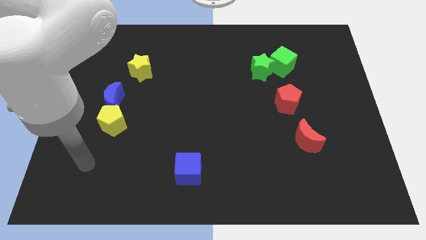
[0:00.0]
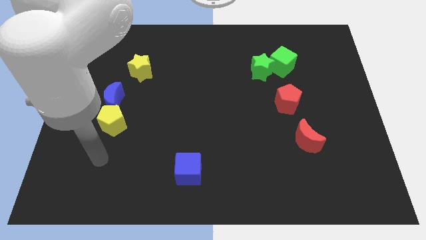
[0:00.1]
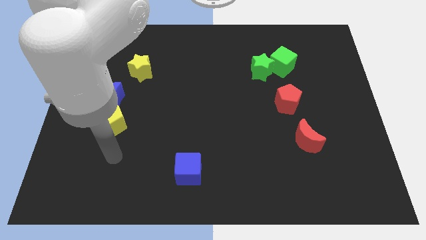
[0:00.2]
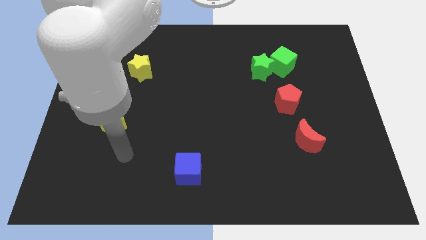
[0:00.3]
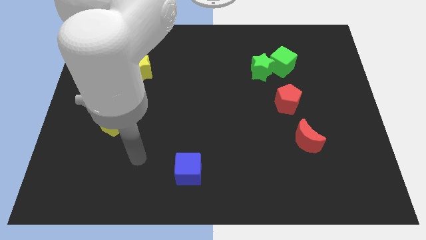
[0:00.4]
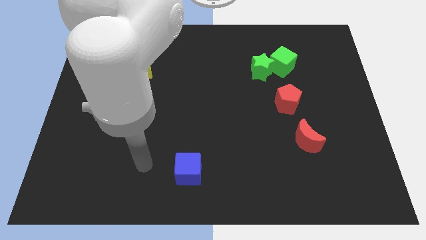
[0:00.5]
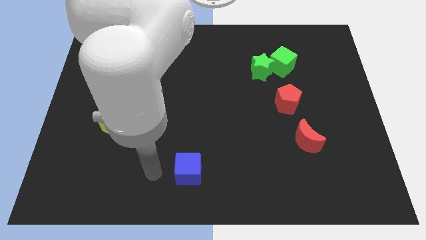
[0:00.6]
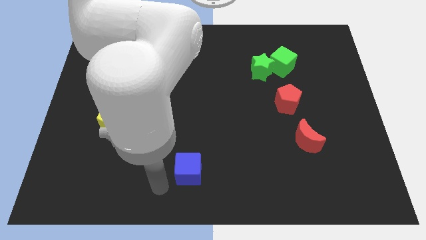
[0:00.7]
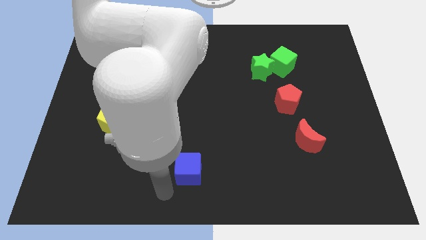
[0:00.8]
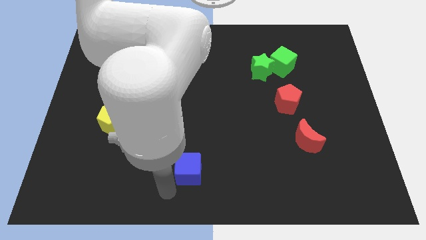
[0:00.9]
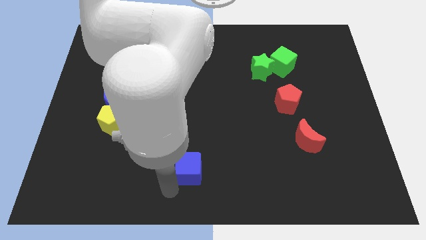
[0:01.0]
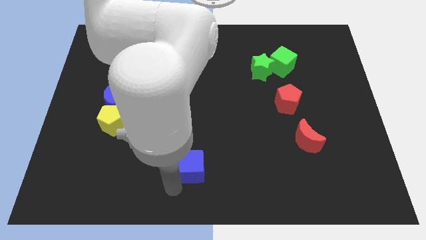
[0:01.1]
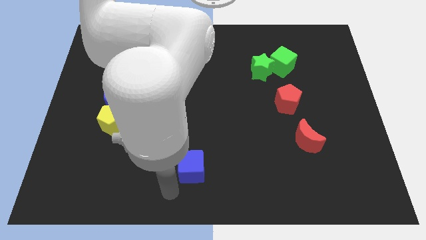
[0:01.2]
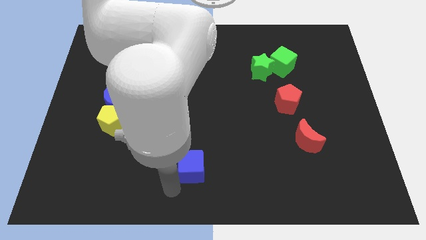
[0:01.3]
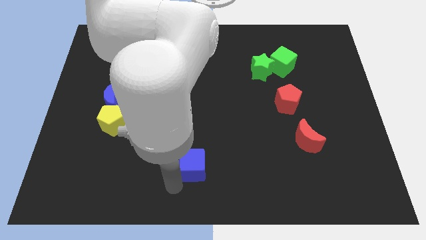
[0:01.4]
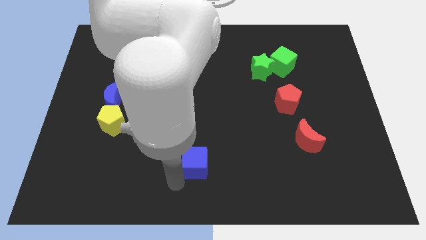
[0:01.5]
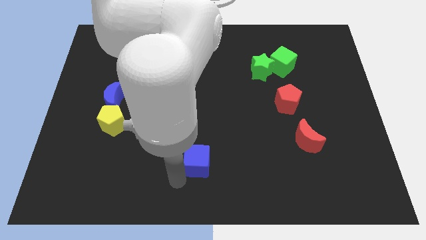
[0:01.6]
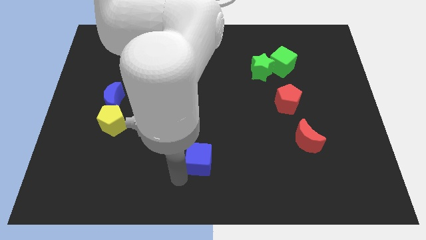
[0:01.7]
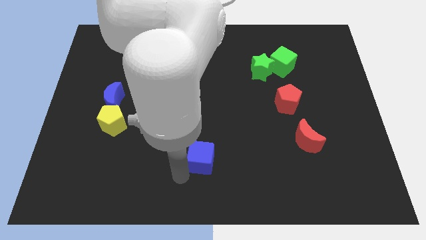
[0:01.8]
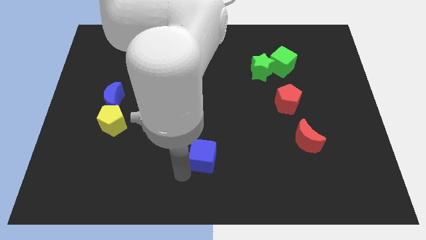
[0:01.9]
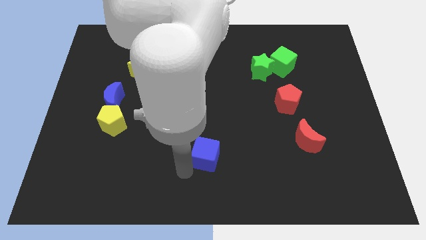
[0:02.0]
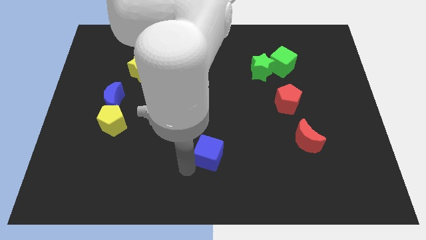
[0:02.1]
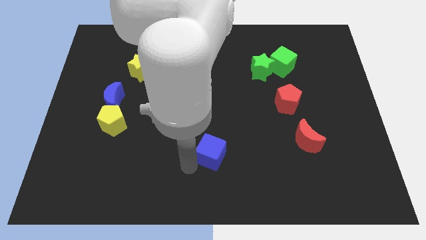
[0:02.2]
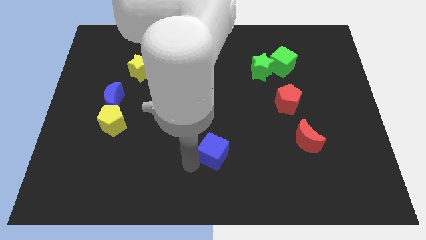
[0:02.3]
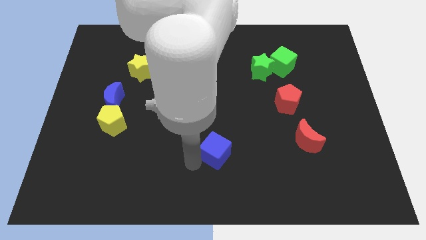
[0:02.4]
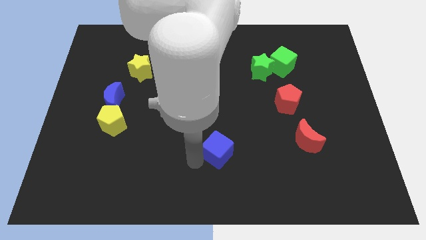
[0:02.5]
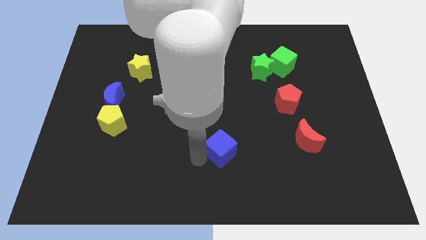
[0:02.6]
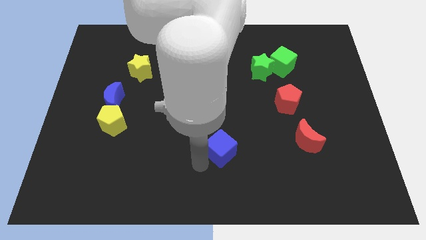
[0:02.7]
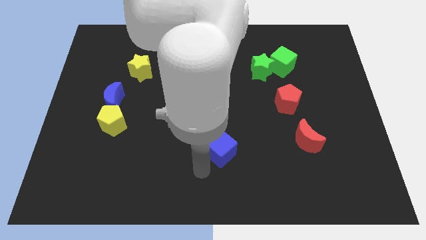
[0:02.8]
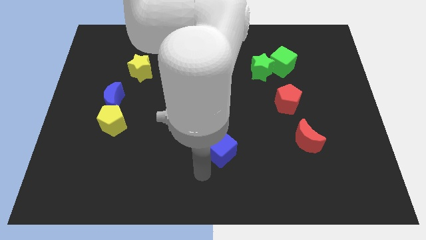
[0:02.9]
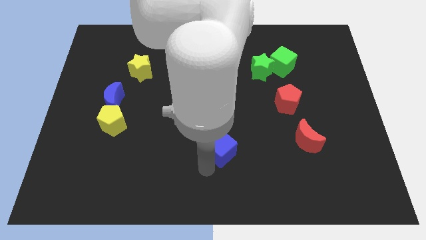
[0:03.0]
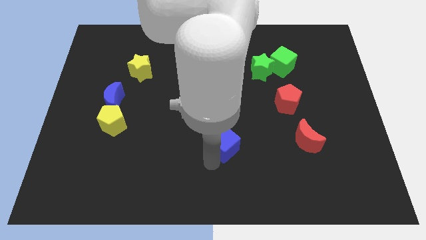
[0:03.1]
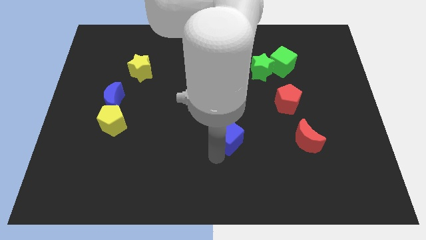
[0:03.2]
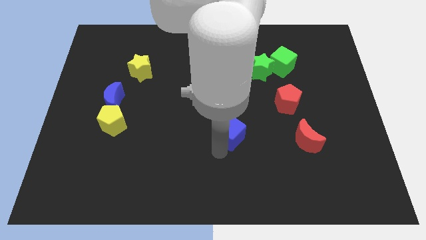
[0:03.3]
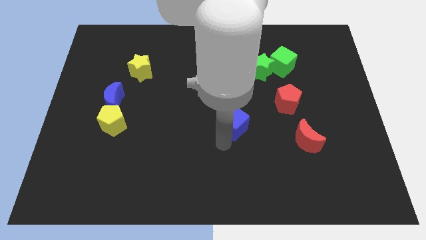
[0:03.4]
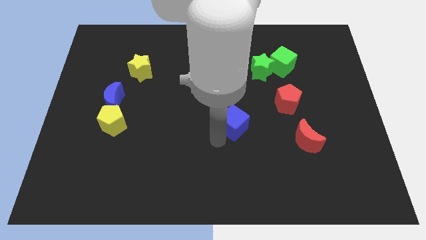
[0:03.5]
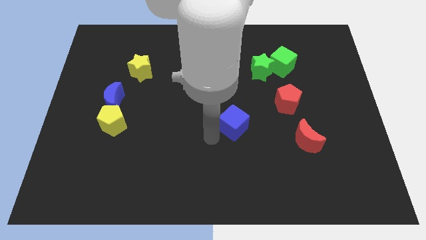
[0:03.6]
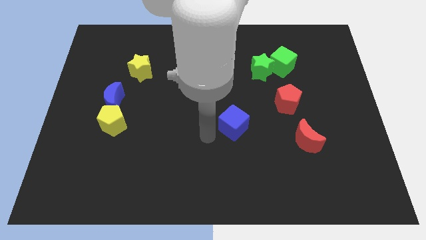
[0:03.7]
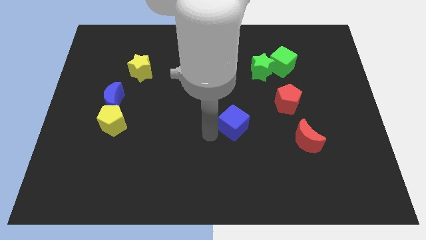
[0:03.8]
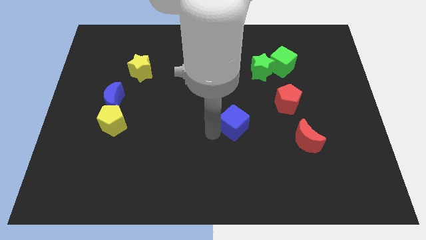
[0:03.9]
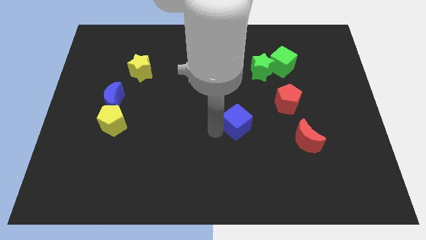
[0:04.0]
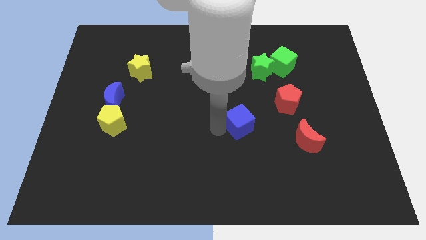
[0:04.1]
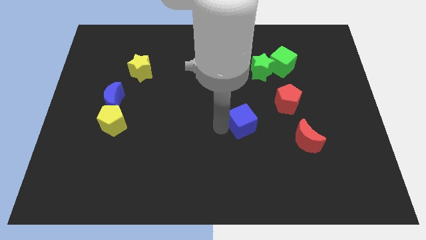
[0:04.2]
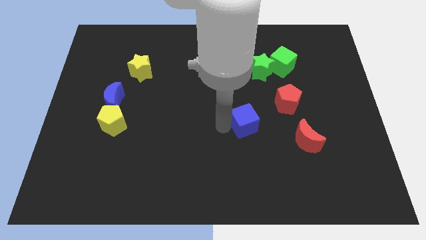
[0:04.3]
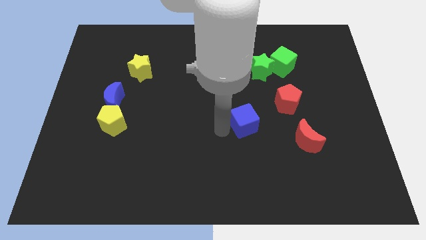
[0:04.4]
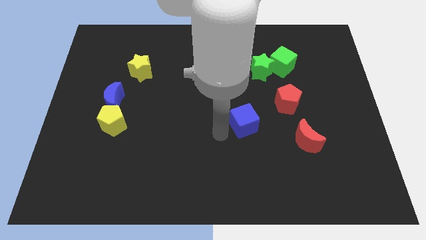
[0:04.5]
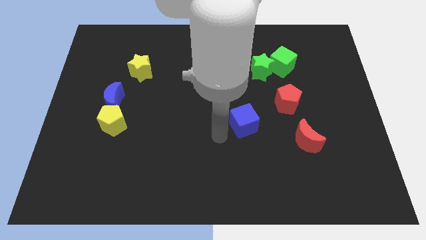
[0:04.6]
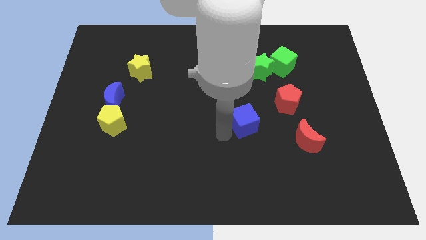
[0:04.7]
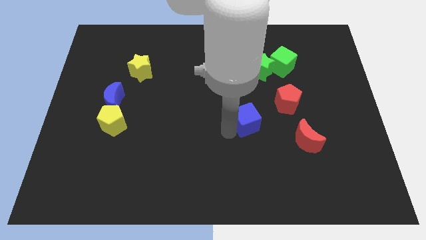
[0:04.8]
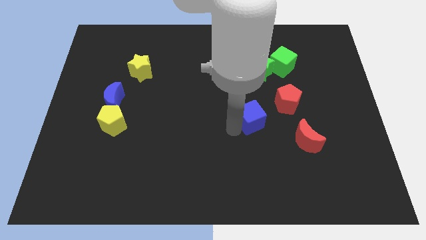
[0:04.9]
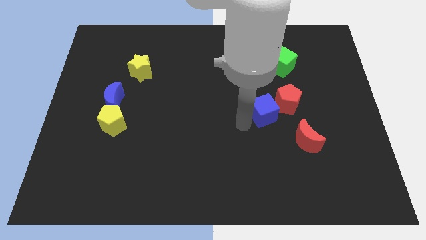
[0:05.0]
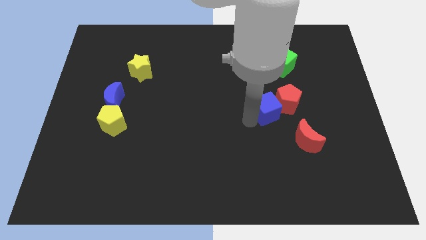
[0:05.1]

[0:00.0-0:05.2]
put the blue cube towards the red pentagon

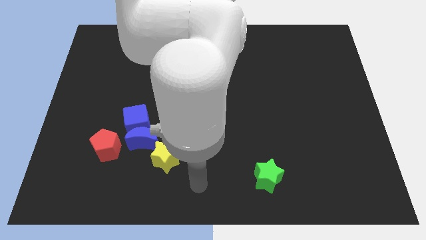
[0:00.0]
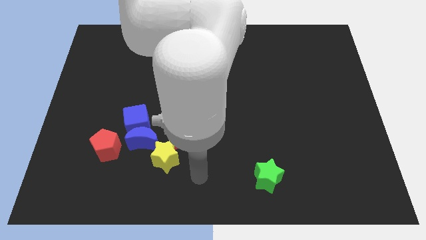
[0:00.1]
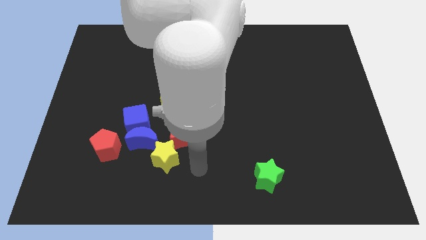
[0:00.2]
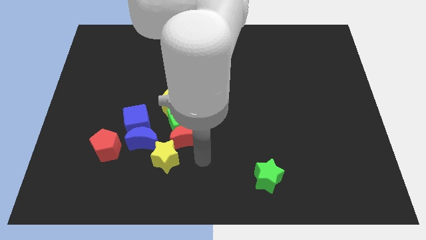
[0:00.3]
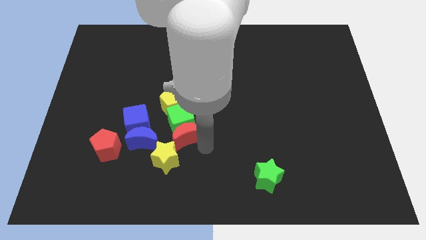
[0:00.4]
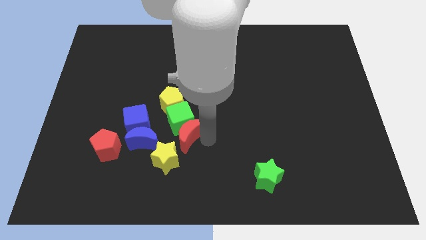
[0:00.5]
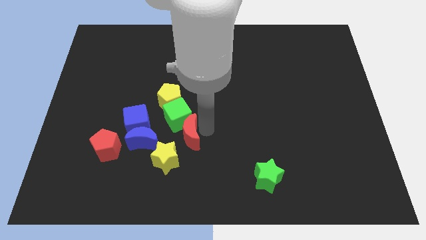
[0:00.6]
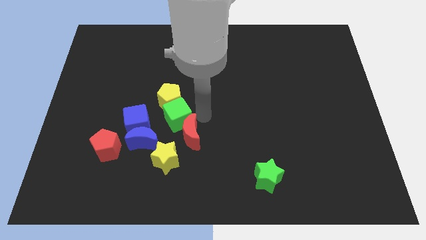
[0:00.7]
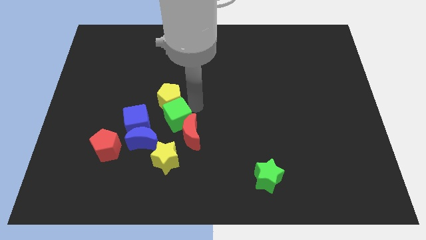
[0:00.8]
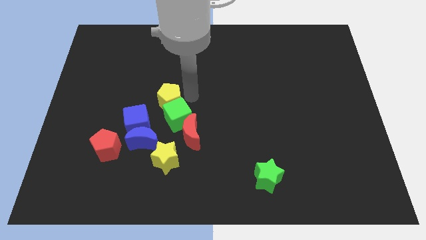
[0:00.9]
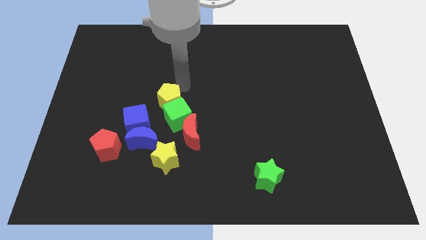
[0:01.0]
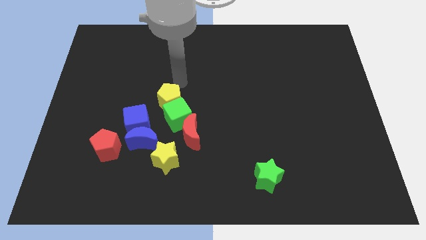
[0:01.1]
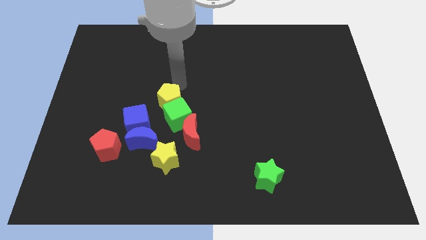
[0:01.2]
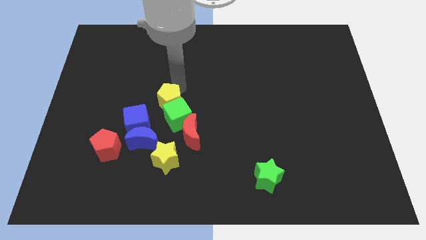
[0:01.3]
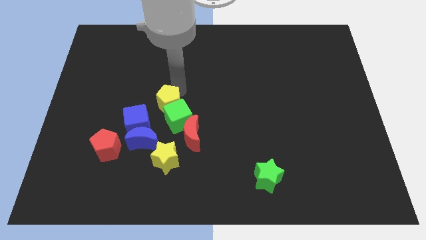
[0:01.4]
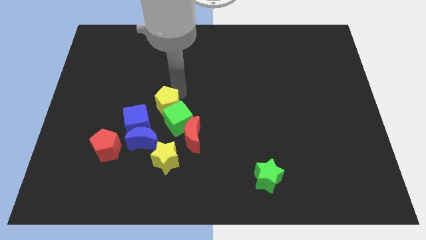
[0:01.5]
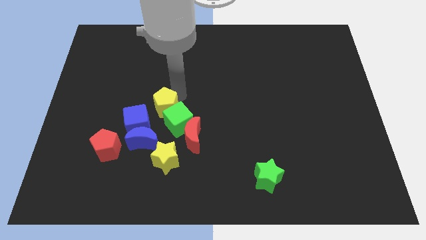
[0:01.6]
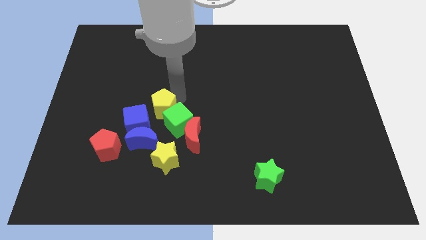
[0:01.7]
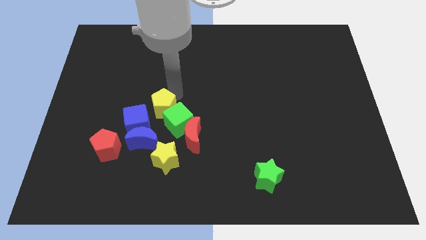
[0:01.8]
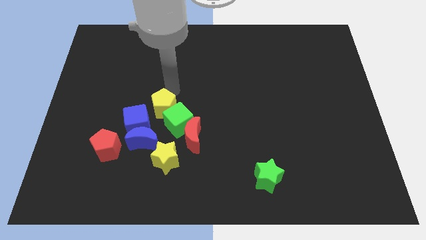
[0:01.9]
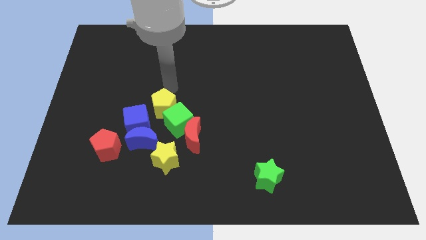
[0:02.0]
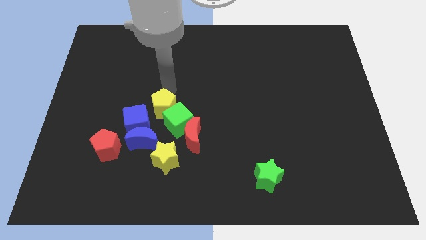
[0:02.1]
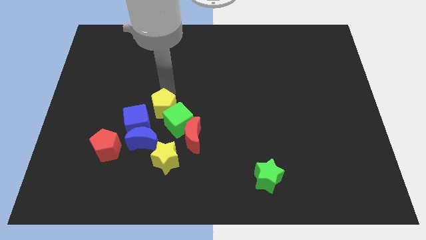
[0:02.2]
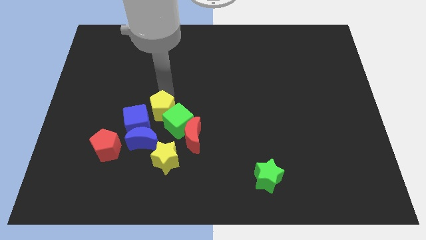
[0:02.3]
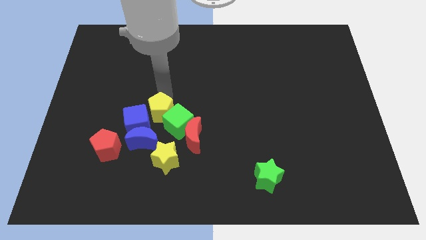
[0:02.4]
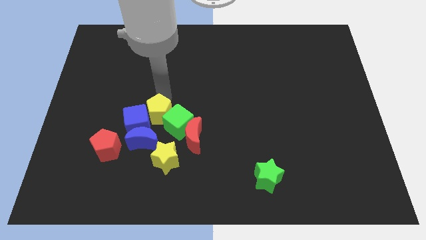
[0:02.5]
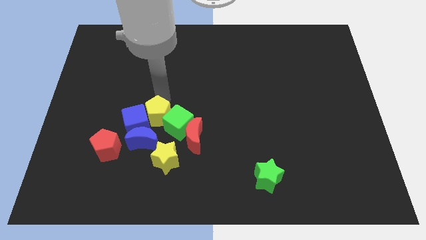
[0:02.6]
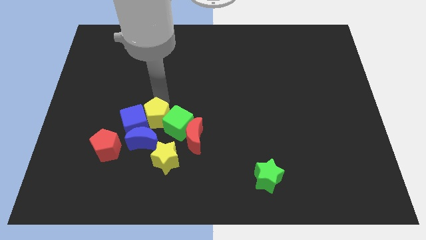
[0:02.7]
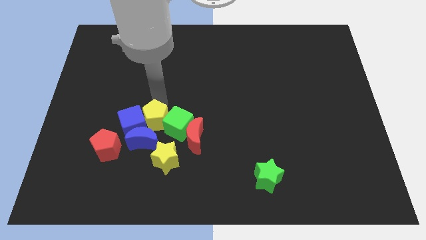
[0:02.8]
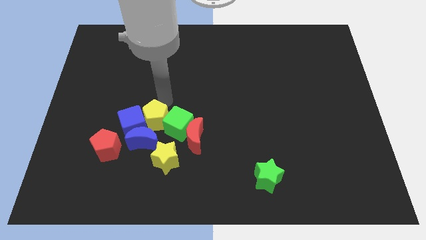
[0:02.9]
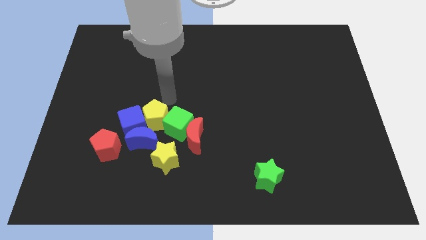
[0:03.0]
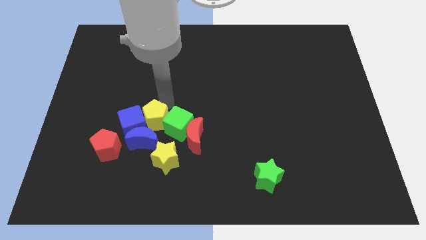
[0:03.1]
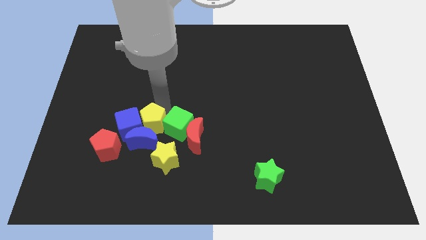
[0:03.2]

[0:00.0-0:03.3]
move the yellow pentagon to the blue moon
